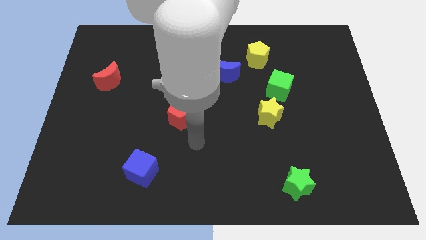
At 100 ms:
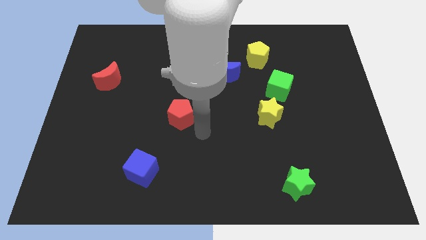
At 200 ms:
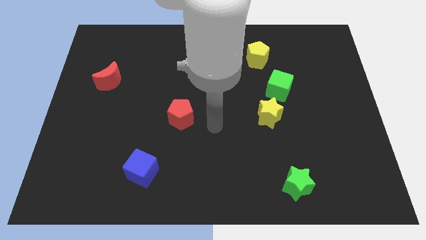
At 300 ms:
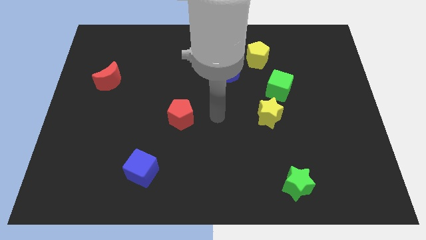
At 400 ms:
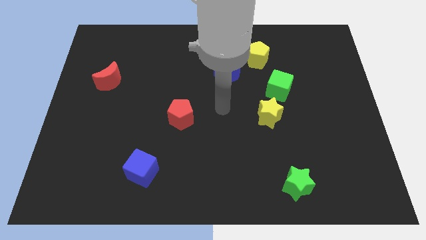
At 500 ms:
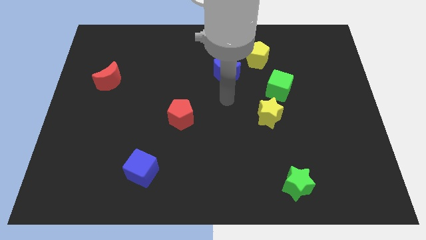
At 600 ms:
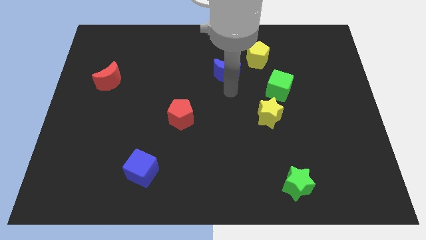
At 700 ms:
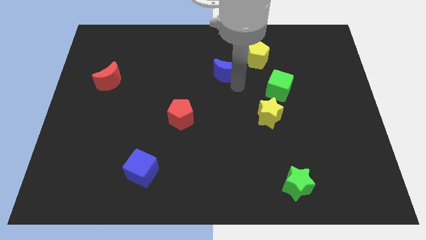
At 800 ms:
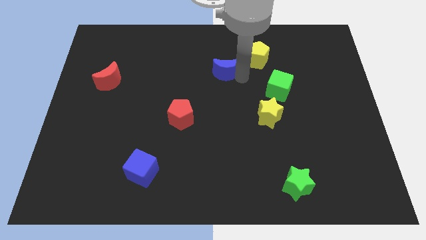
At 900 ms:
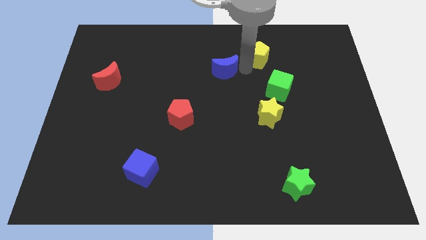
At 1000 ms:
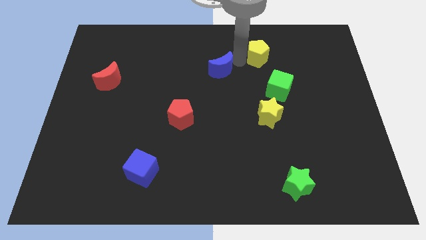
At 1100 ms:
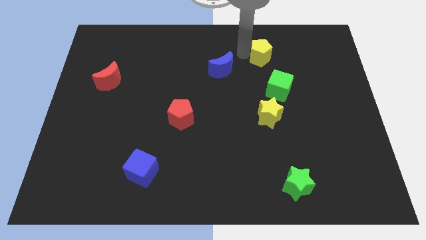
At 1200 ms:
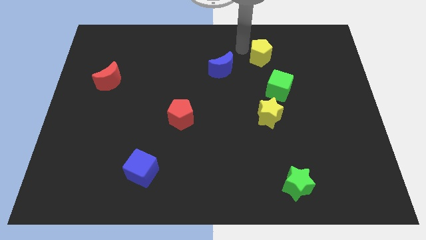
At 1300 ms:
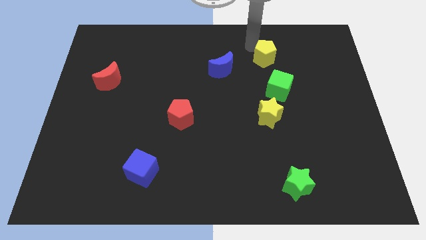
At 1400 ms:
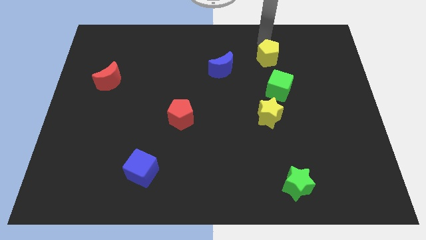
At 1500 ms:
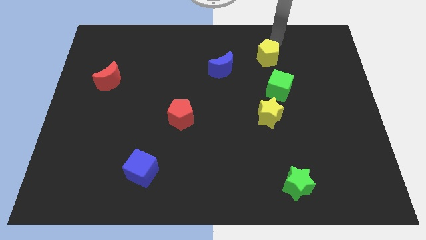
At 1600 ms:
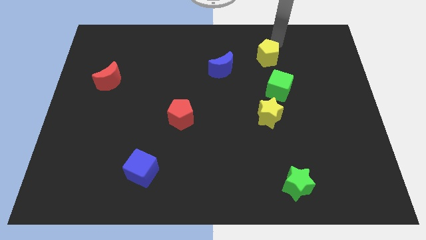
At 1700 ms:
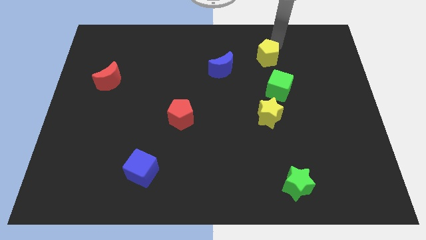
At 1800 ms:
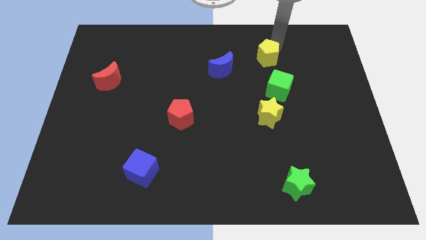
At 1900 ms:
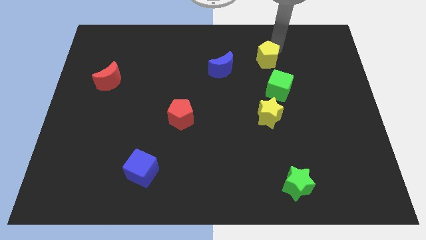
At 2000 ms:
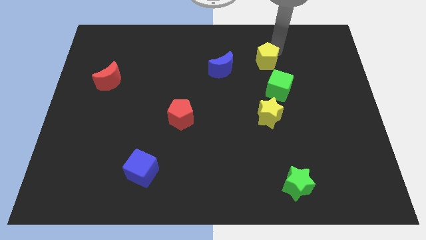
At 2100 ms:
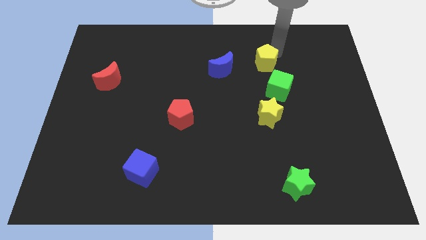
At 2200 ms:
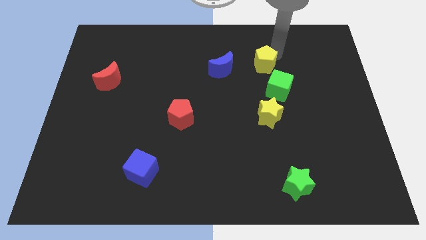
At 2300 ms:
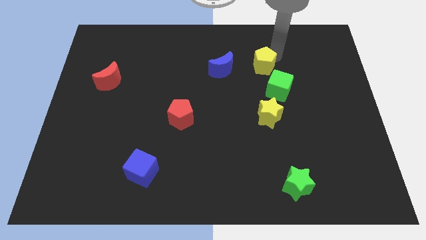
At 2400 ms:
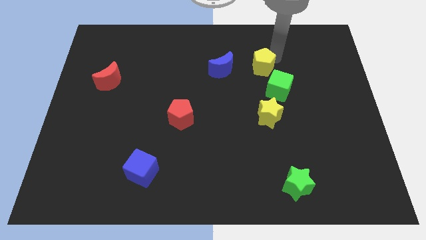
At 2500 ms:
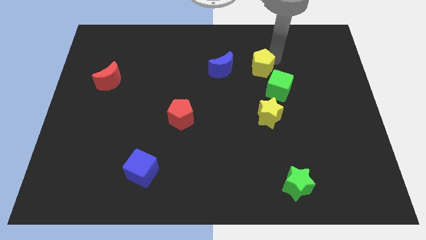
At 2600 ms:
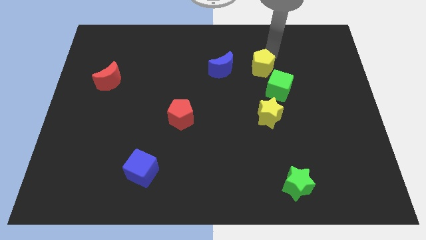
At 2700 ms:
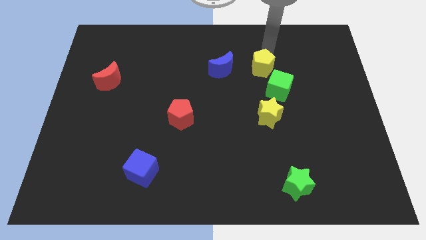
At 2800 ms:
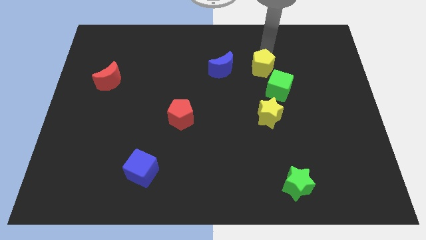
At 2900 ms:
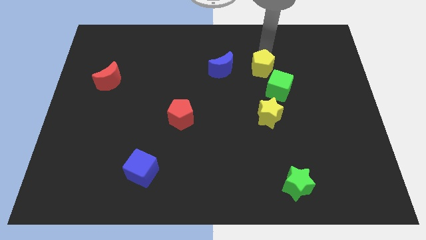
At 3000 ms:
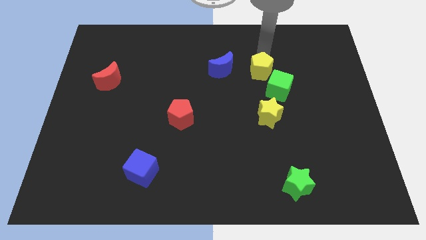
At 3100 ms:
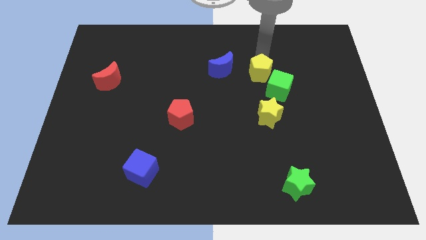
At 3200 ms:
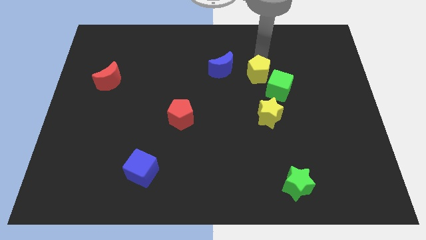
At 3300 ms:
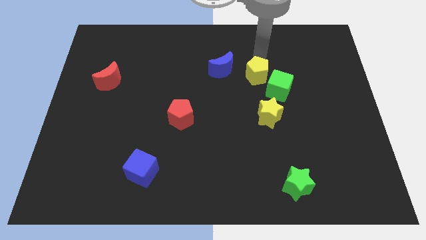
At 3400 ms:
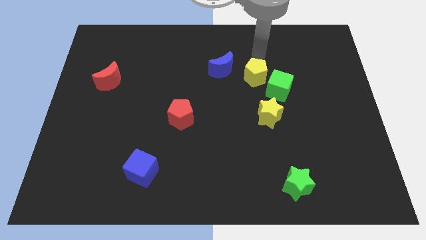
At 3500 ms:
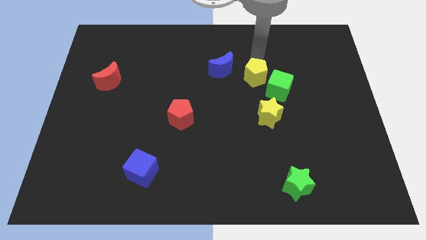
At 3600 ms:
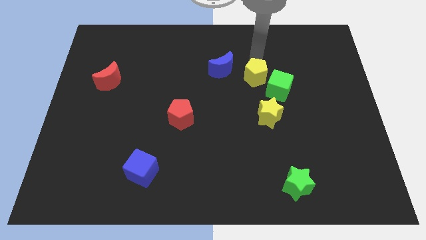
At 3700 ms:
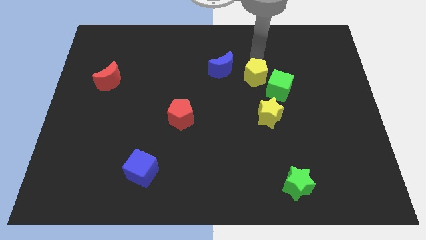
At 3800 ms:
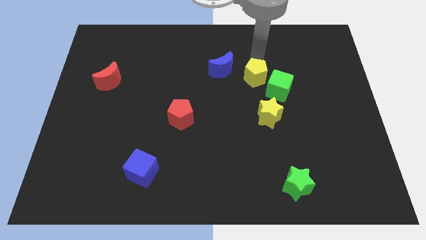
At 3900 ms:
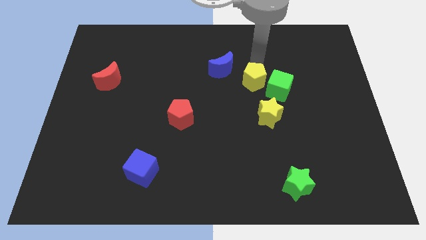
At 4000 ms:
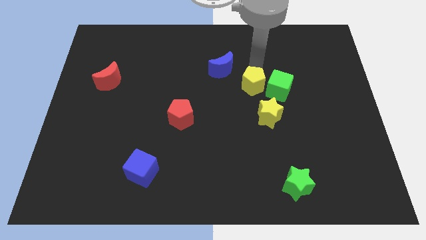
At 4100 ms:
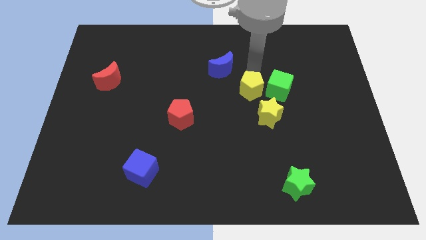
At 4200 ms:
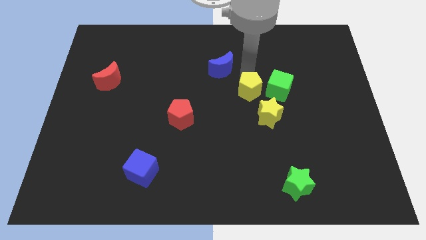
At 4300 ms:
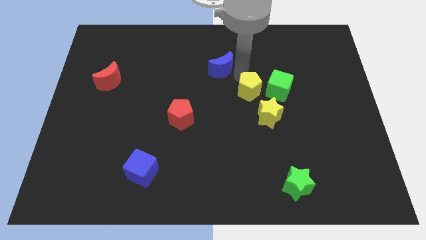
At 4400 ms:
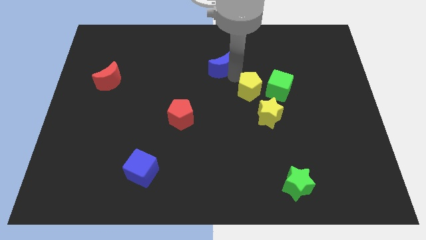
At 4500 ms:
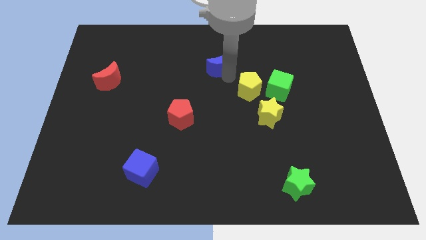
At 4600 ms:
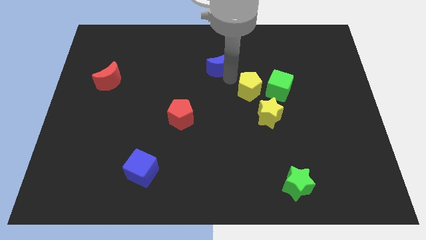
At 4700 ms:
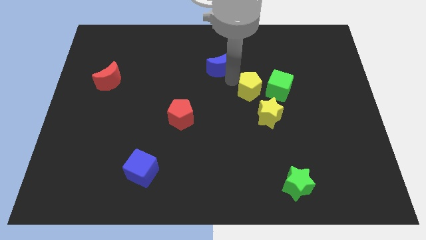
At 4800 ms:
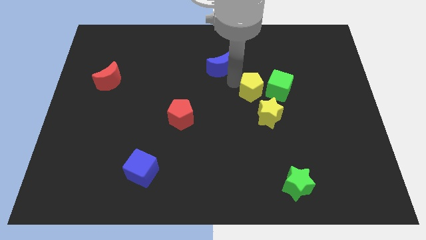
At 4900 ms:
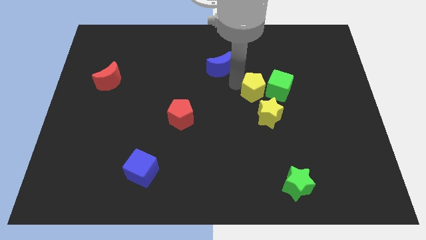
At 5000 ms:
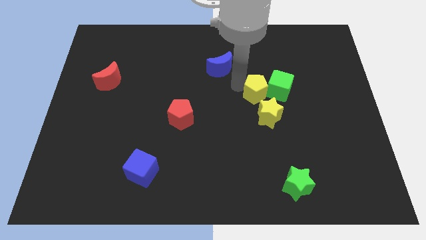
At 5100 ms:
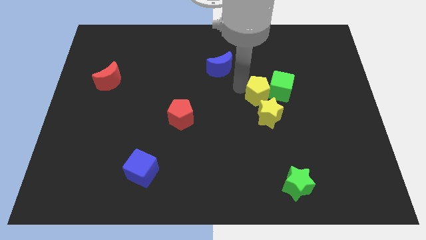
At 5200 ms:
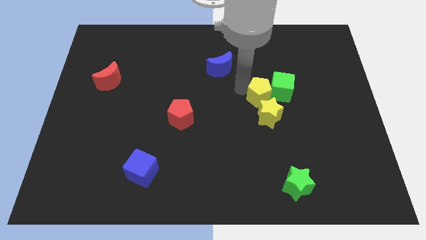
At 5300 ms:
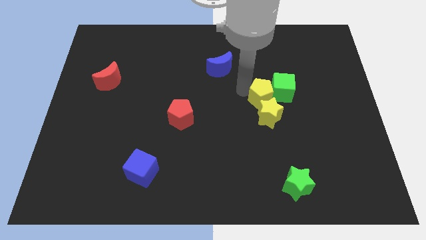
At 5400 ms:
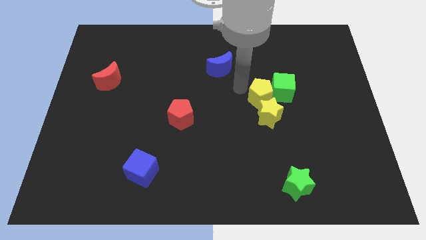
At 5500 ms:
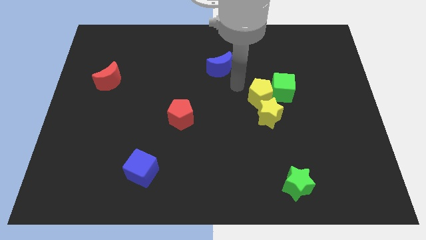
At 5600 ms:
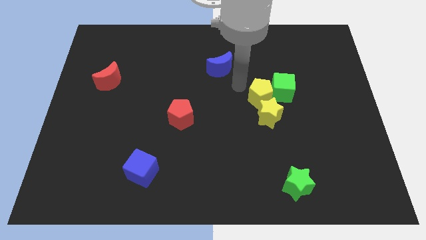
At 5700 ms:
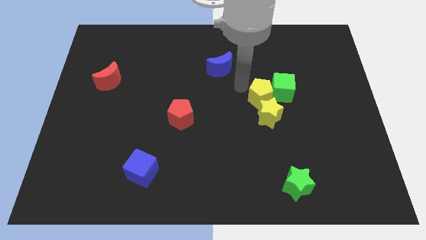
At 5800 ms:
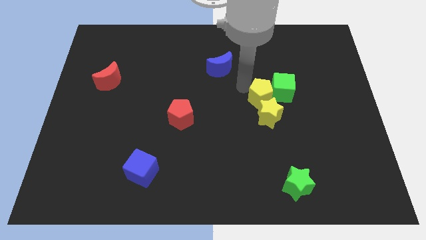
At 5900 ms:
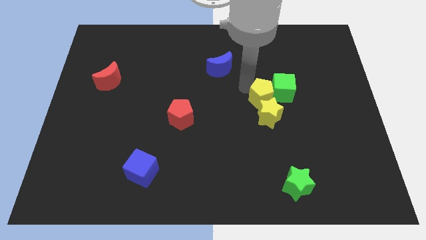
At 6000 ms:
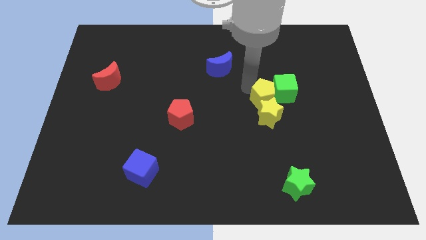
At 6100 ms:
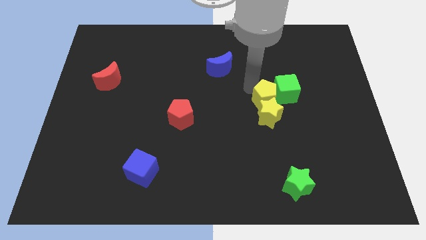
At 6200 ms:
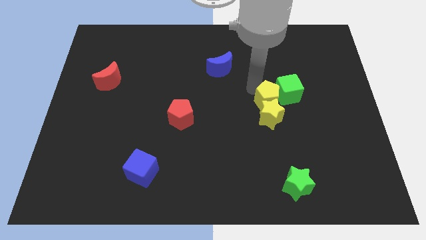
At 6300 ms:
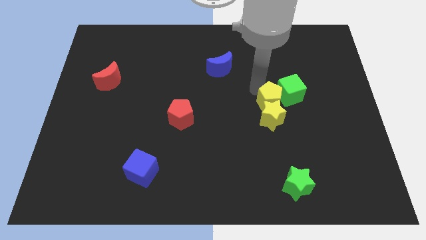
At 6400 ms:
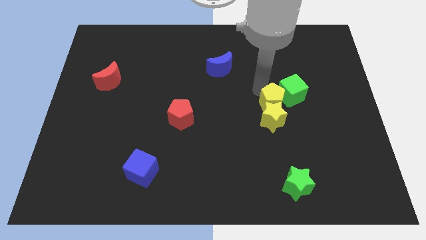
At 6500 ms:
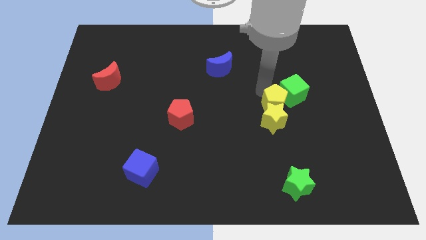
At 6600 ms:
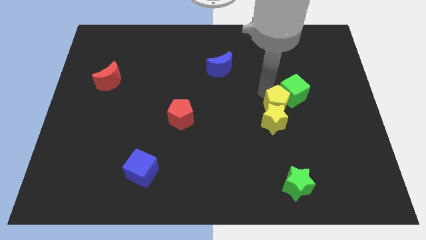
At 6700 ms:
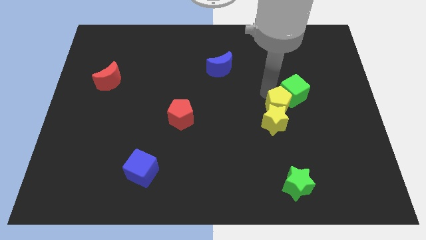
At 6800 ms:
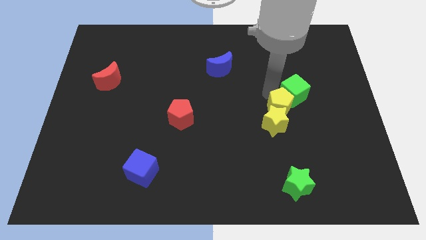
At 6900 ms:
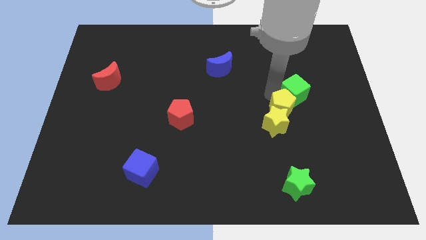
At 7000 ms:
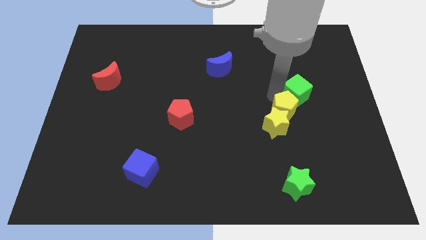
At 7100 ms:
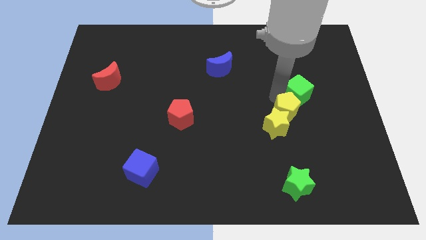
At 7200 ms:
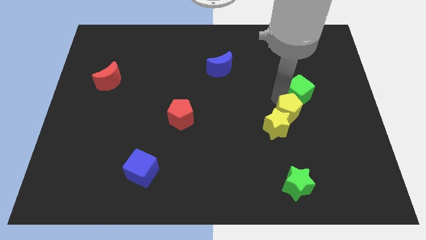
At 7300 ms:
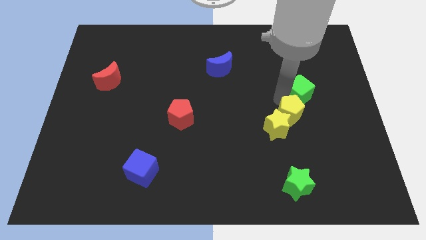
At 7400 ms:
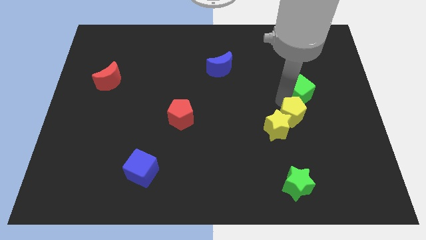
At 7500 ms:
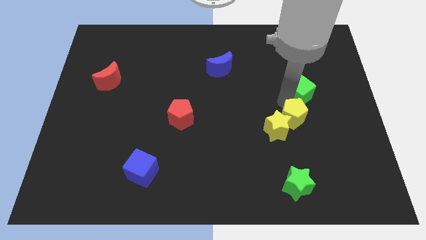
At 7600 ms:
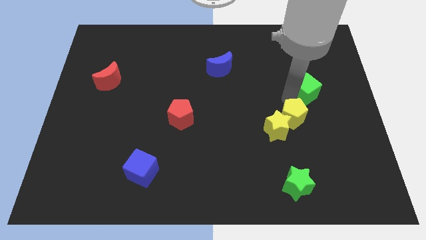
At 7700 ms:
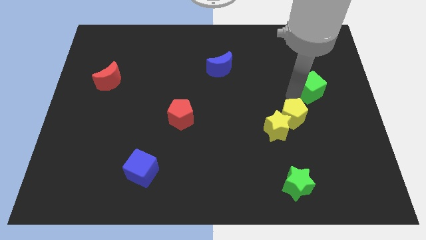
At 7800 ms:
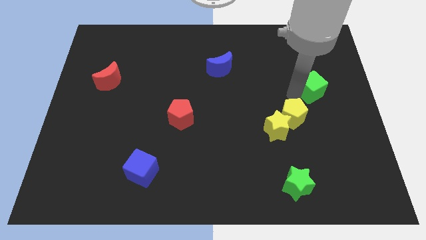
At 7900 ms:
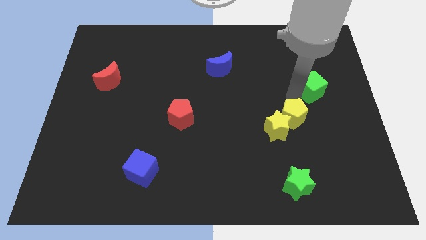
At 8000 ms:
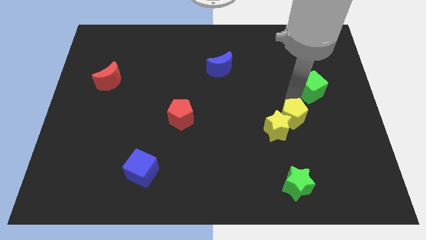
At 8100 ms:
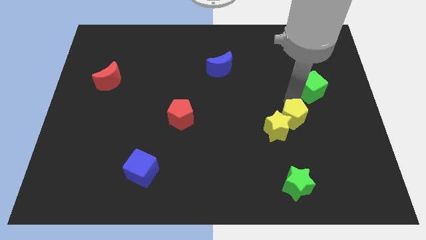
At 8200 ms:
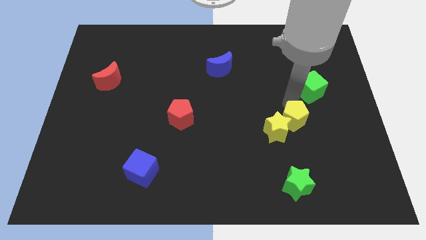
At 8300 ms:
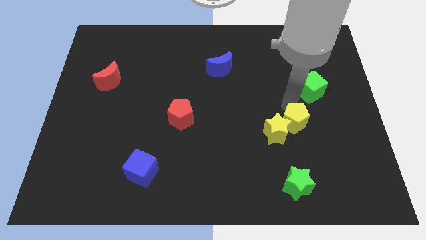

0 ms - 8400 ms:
push the yellow pentagon above the green star
